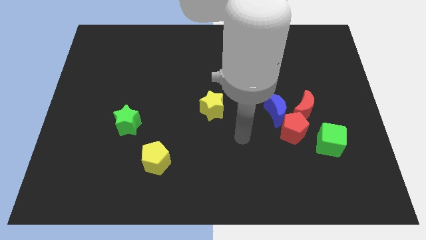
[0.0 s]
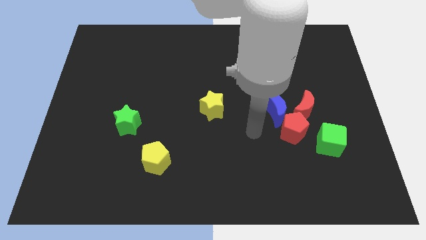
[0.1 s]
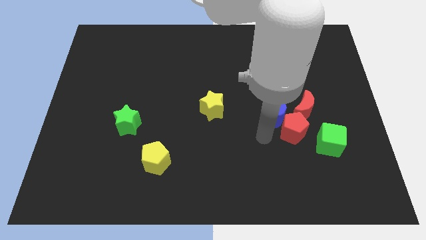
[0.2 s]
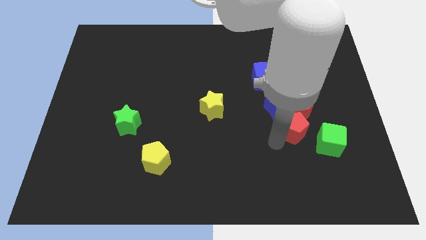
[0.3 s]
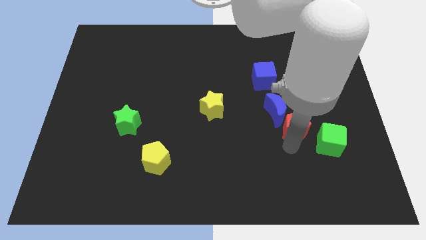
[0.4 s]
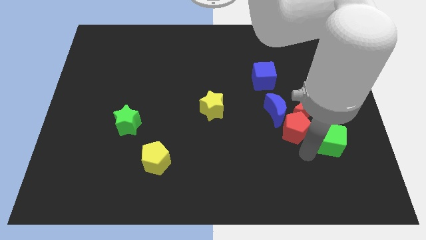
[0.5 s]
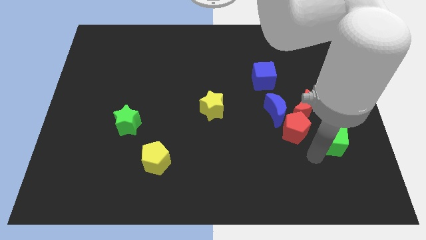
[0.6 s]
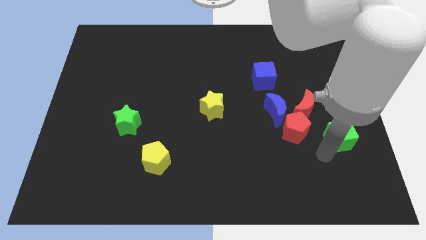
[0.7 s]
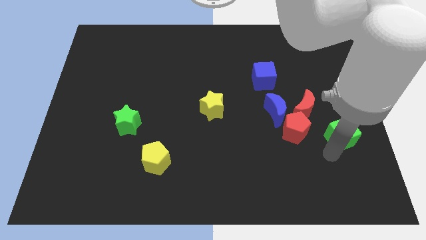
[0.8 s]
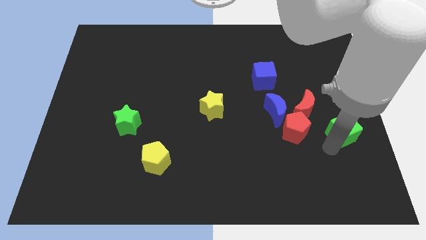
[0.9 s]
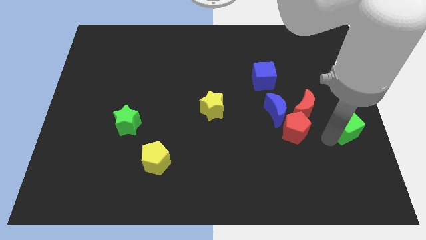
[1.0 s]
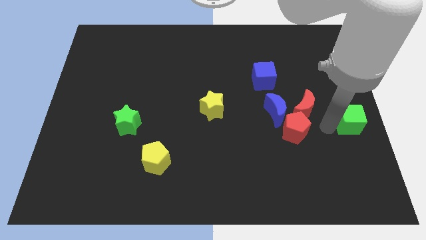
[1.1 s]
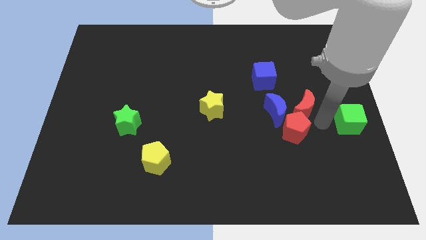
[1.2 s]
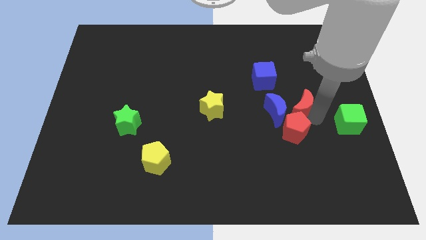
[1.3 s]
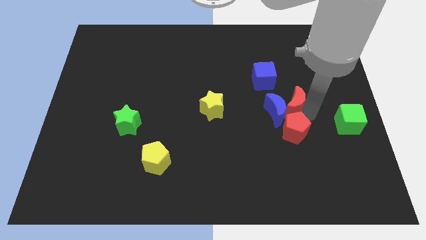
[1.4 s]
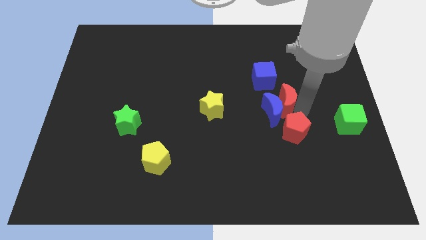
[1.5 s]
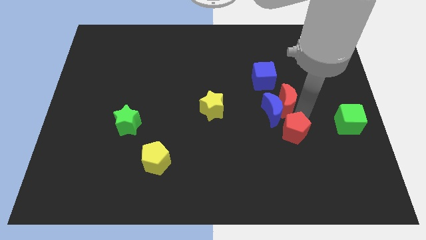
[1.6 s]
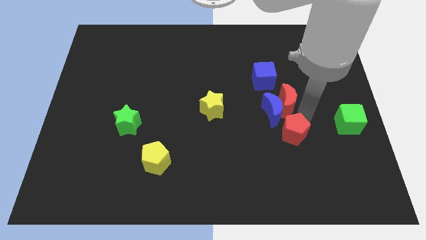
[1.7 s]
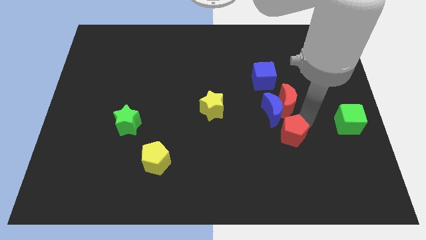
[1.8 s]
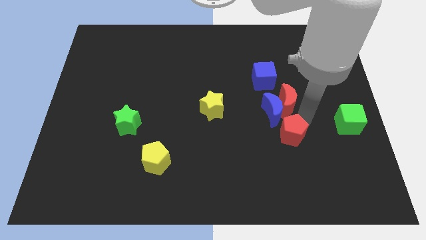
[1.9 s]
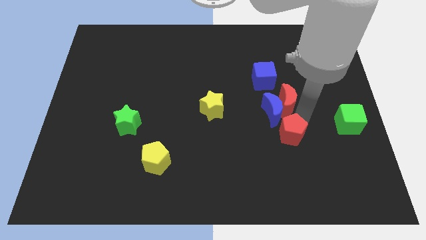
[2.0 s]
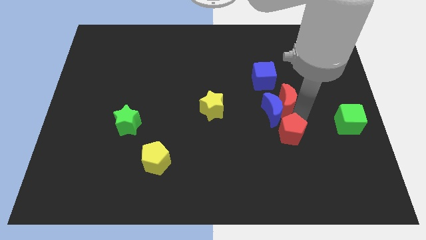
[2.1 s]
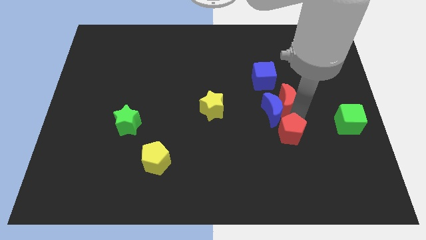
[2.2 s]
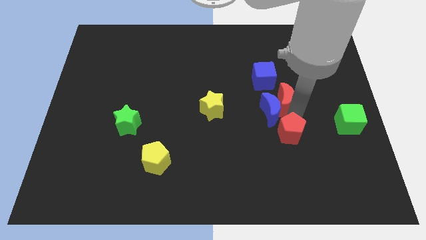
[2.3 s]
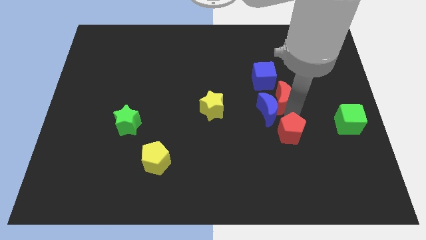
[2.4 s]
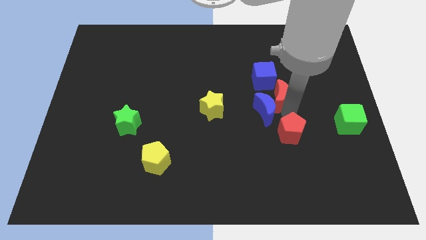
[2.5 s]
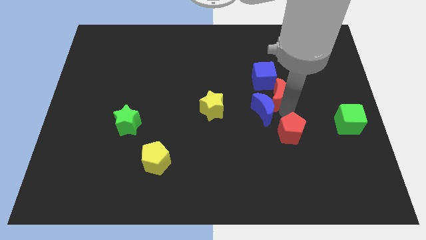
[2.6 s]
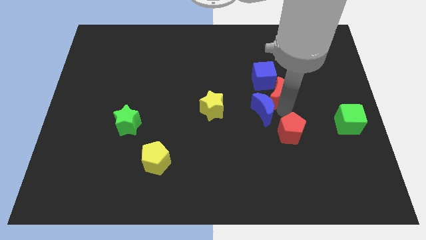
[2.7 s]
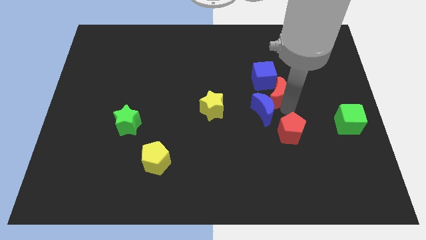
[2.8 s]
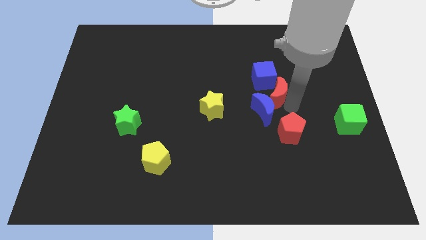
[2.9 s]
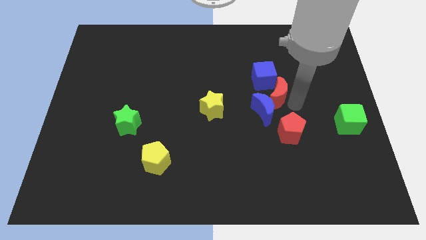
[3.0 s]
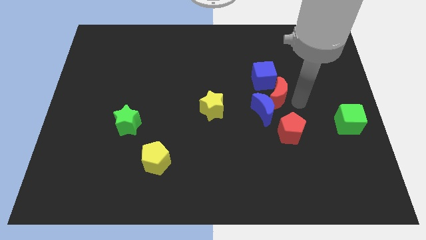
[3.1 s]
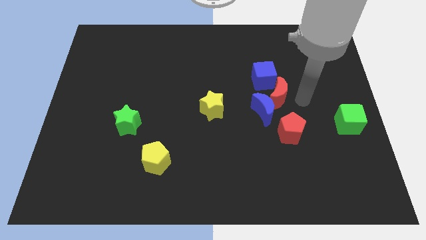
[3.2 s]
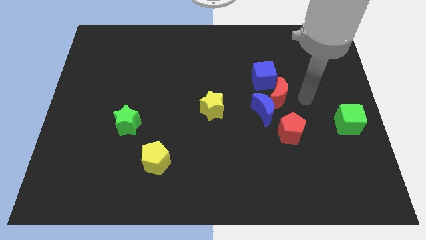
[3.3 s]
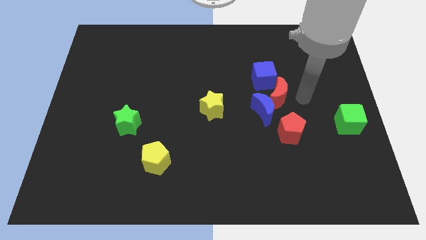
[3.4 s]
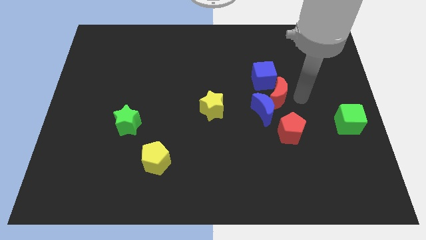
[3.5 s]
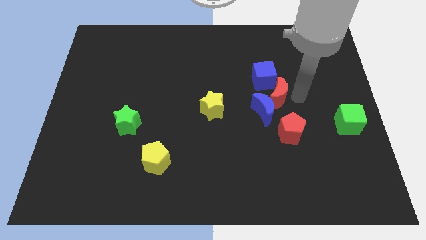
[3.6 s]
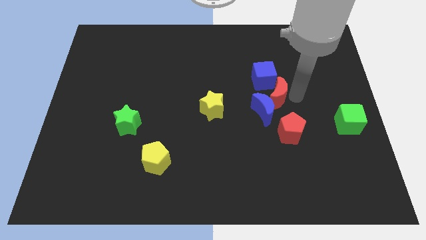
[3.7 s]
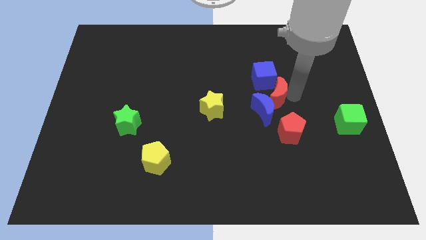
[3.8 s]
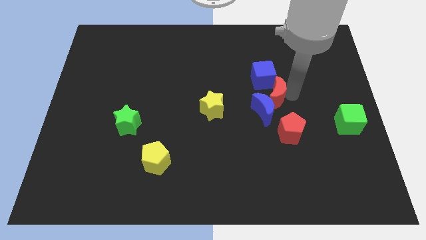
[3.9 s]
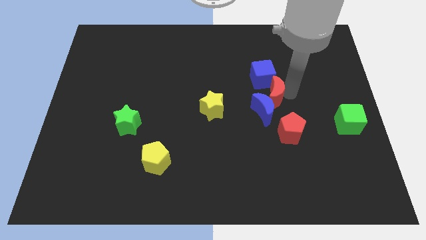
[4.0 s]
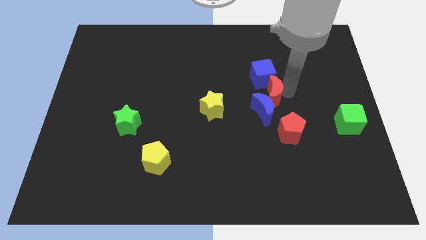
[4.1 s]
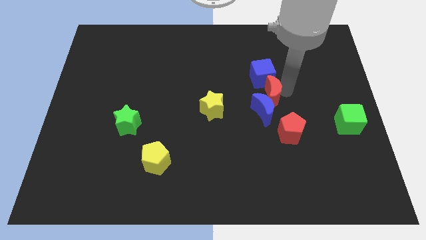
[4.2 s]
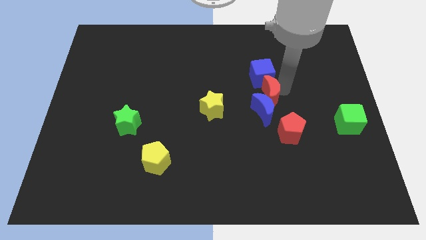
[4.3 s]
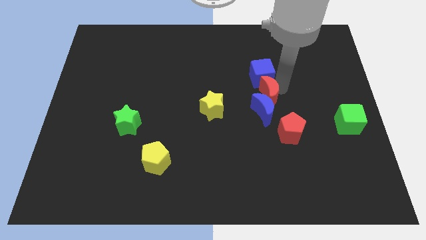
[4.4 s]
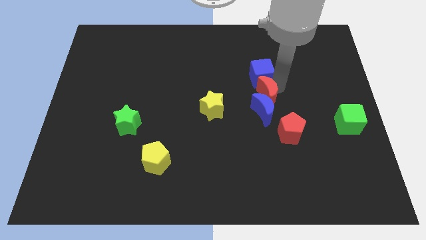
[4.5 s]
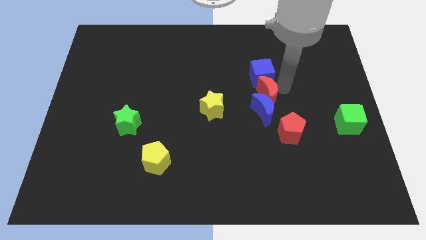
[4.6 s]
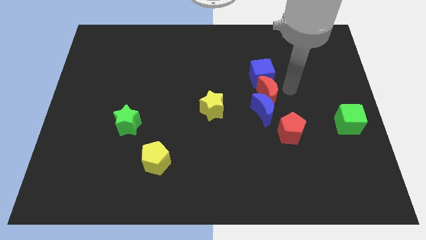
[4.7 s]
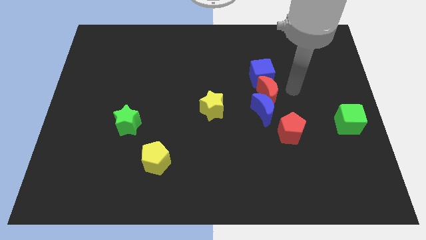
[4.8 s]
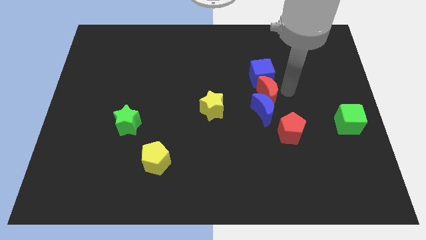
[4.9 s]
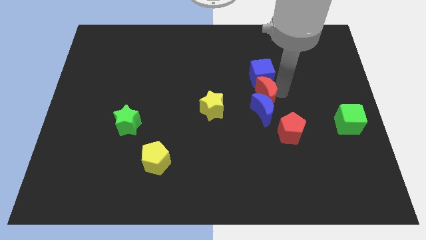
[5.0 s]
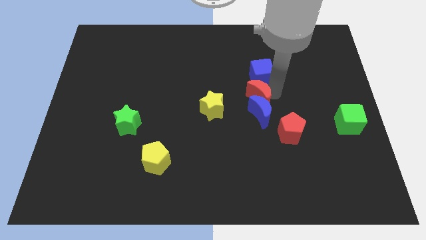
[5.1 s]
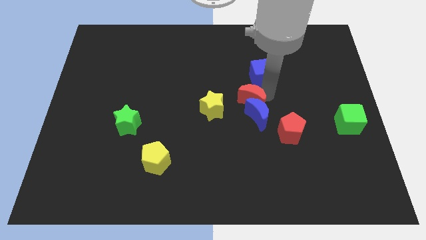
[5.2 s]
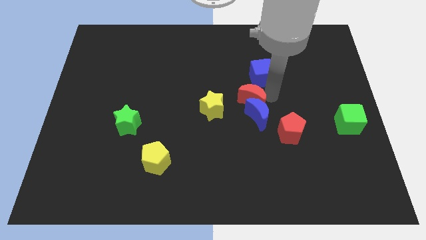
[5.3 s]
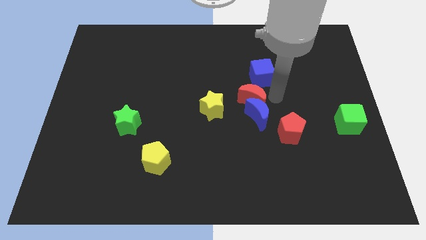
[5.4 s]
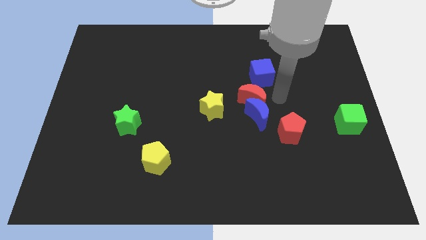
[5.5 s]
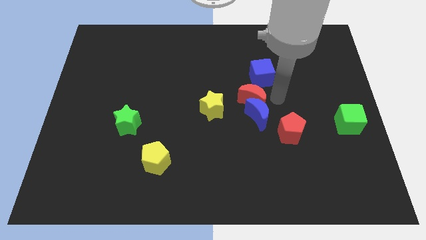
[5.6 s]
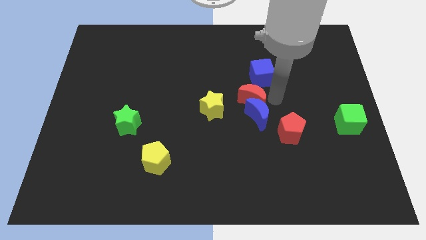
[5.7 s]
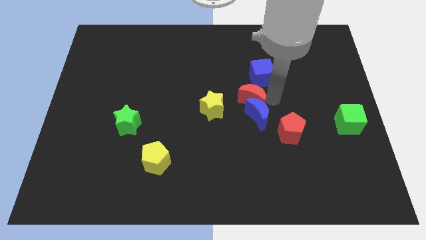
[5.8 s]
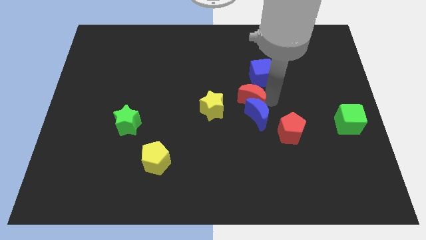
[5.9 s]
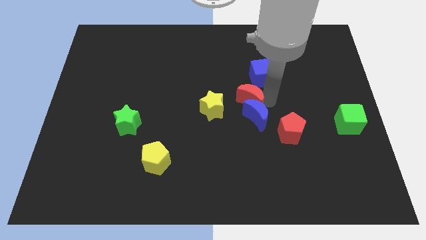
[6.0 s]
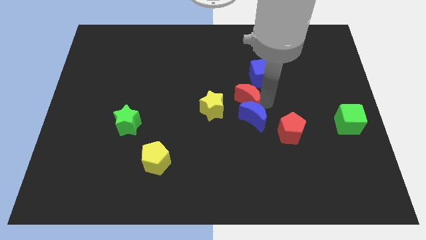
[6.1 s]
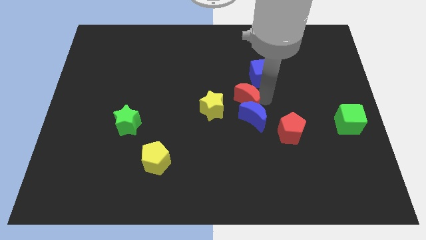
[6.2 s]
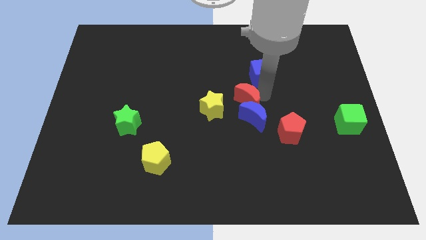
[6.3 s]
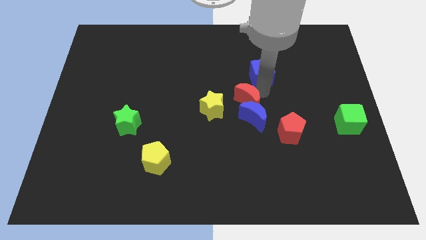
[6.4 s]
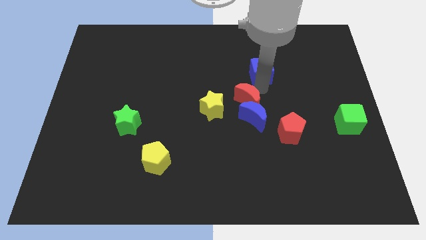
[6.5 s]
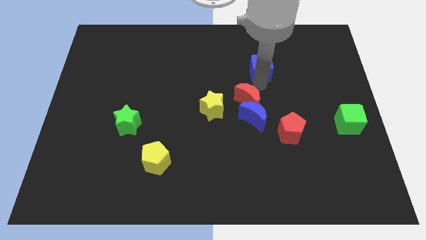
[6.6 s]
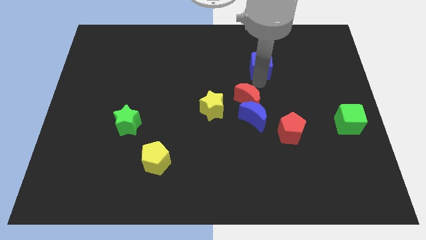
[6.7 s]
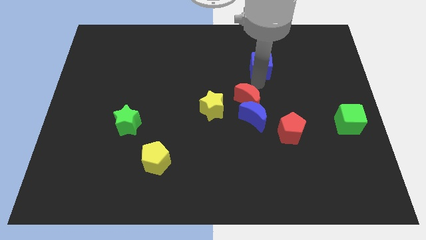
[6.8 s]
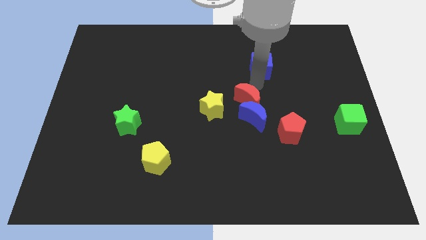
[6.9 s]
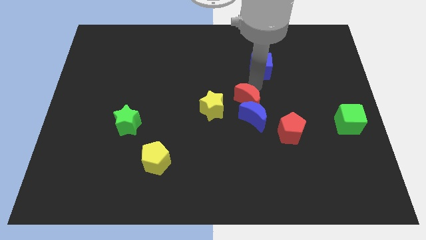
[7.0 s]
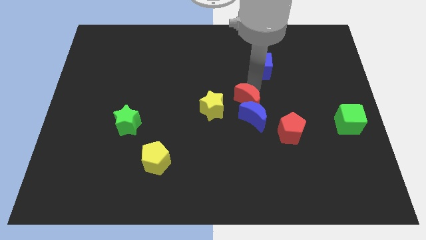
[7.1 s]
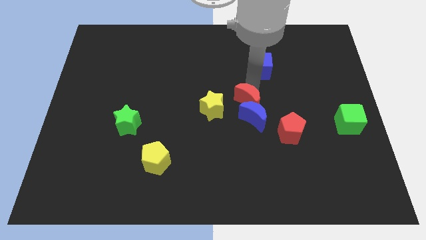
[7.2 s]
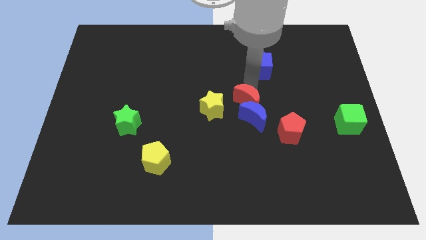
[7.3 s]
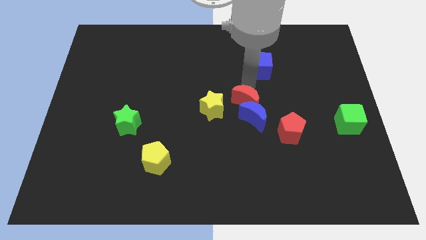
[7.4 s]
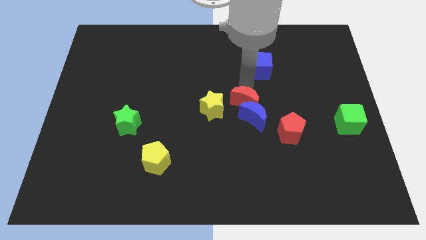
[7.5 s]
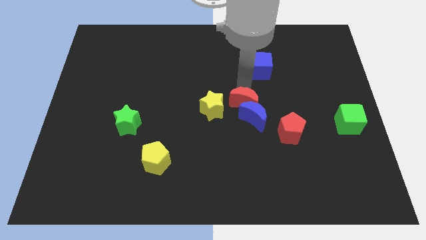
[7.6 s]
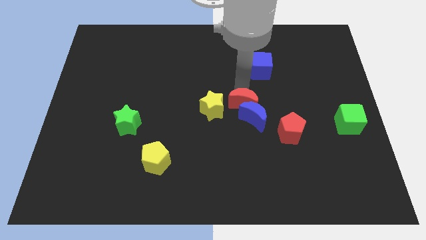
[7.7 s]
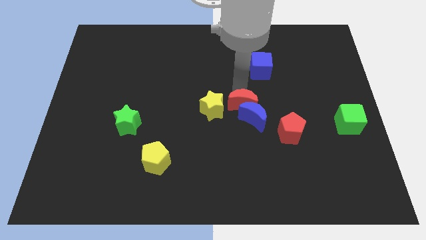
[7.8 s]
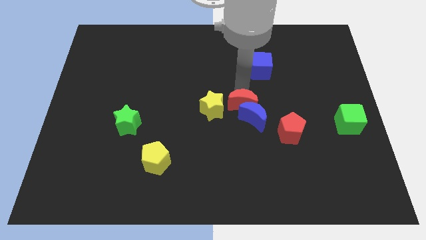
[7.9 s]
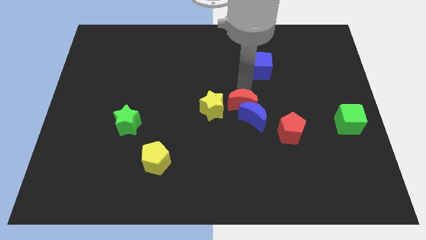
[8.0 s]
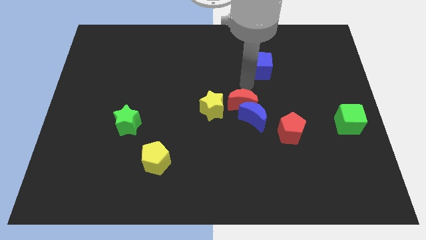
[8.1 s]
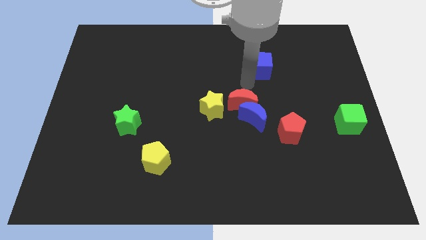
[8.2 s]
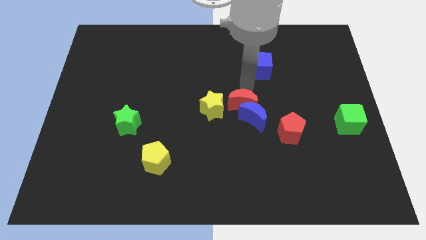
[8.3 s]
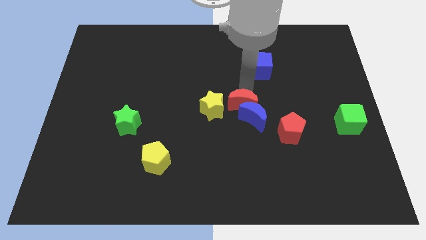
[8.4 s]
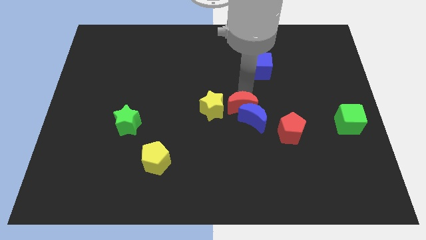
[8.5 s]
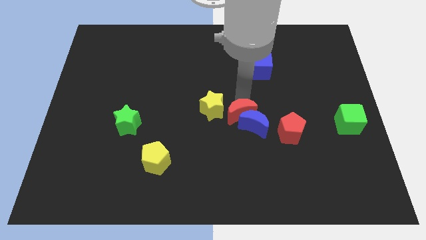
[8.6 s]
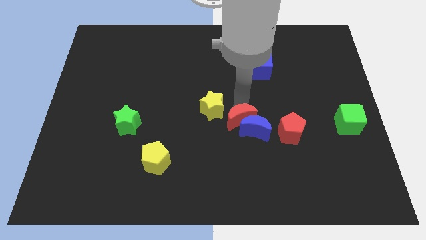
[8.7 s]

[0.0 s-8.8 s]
slide the red moon a little downwards and then to the left
